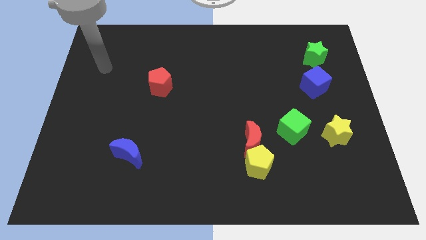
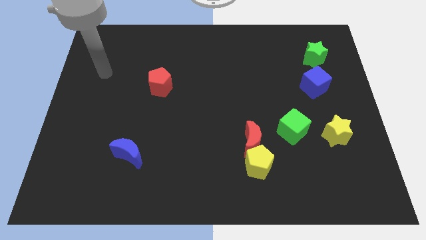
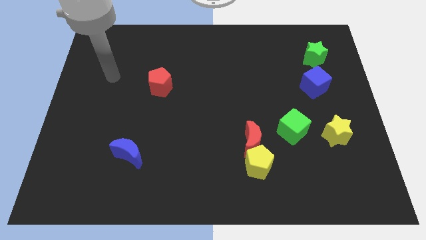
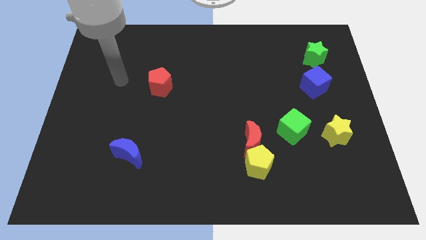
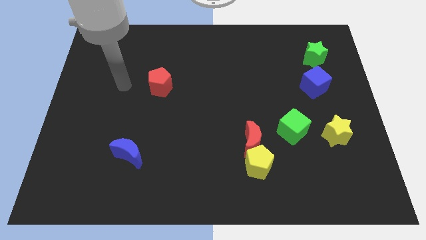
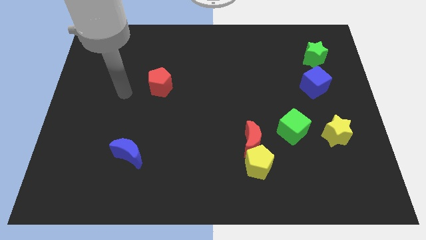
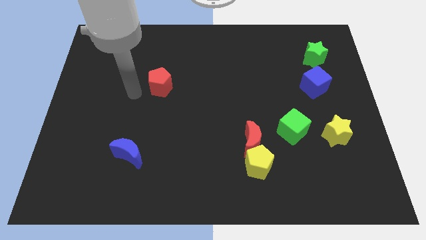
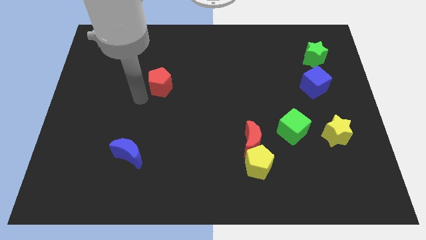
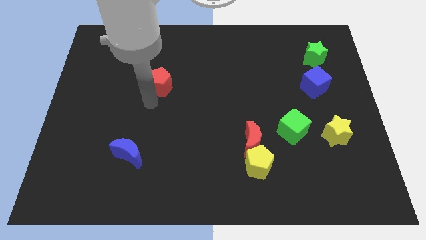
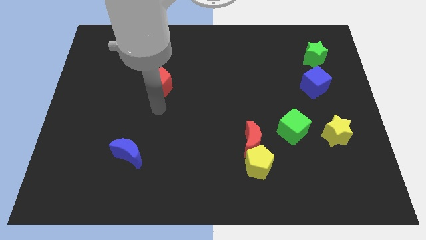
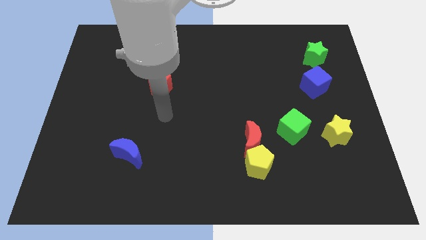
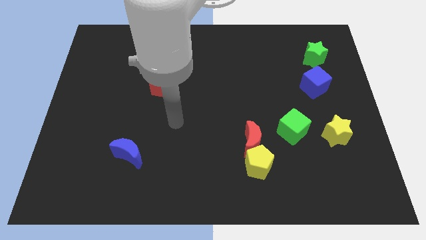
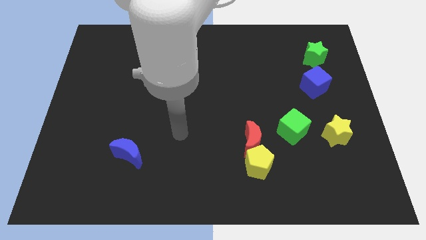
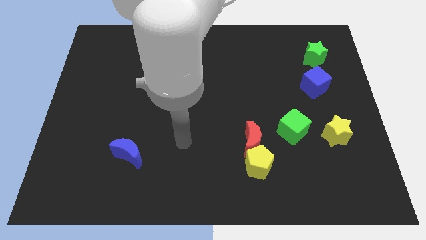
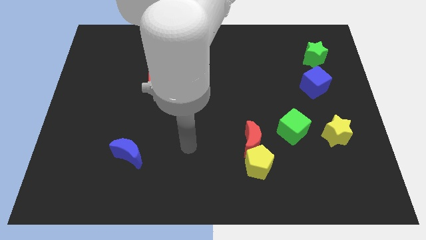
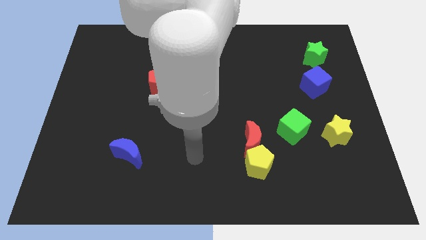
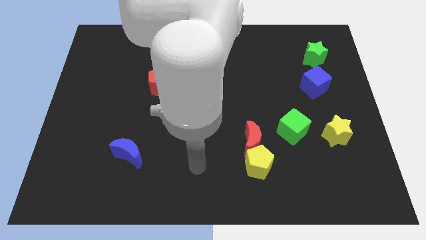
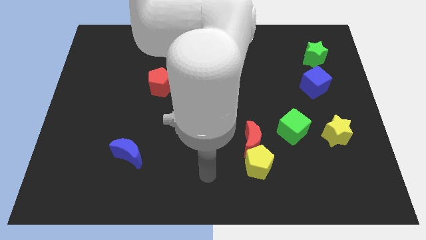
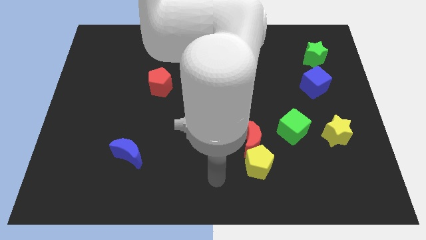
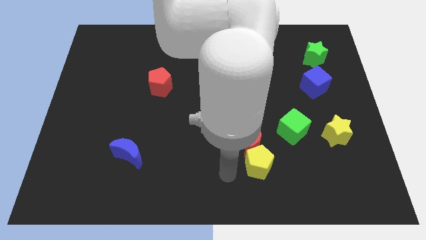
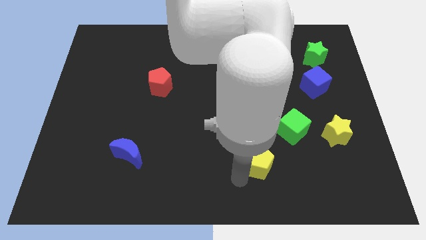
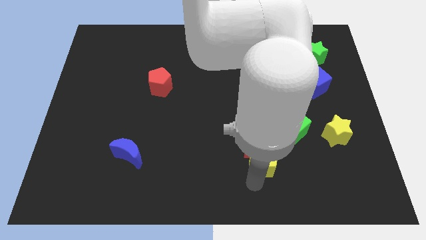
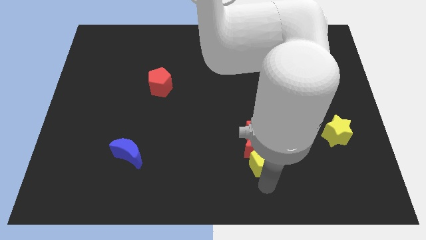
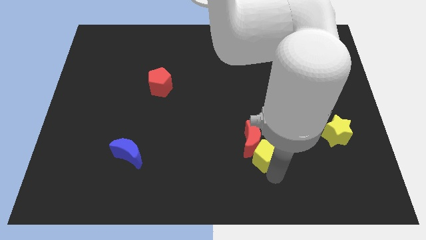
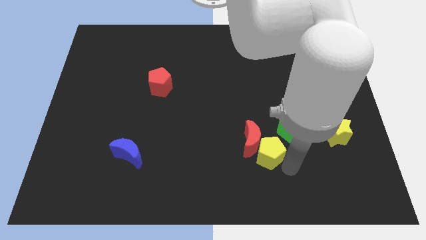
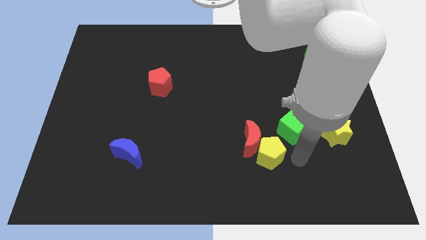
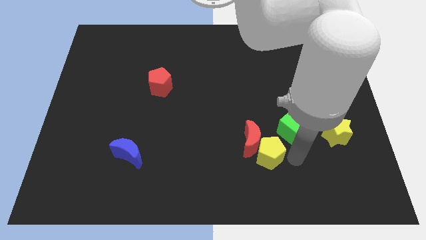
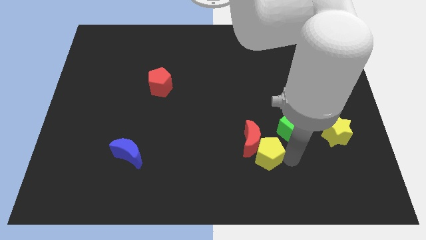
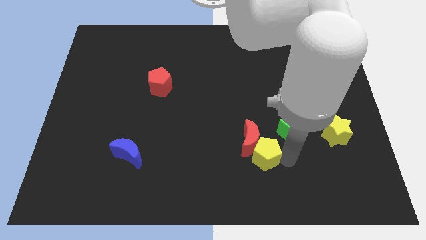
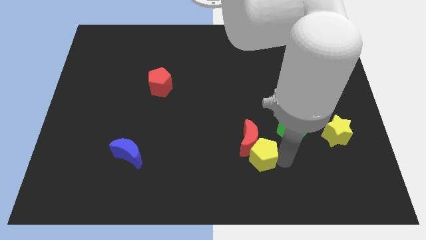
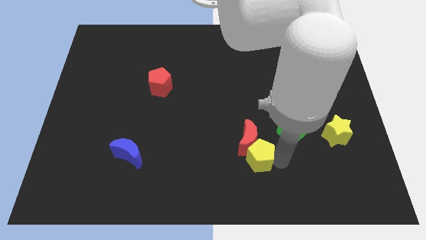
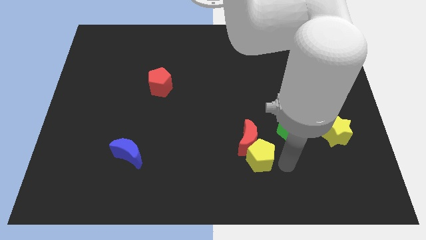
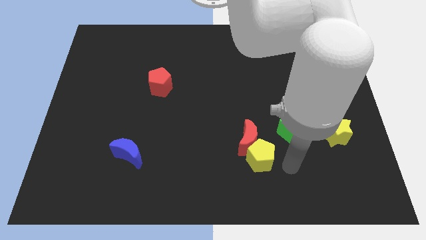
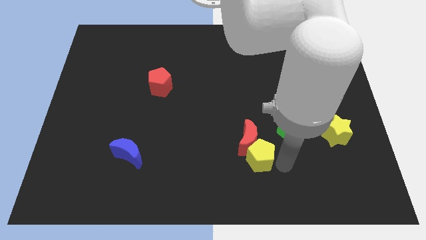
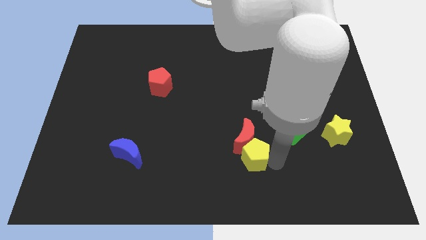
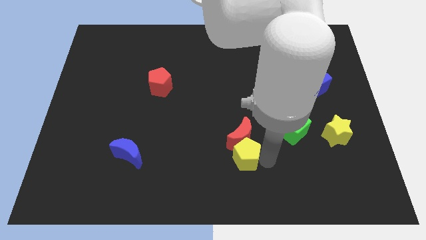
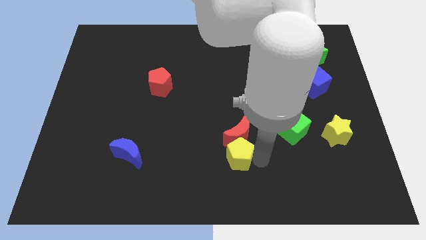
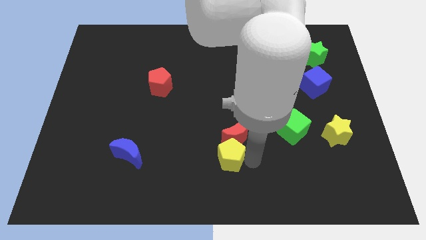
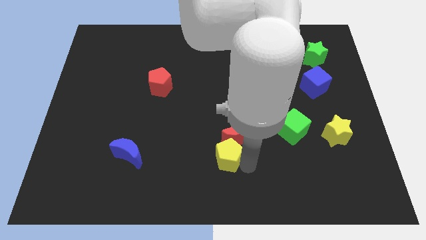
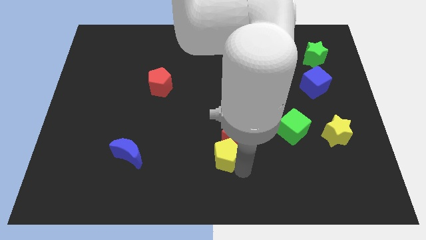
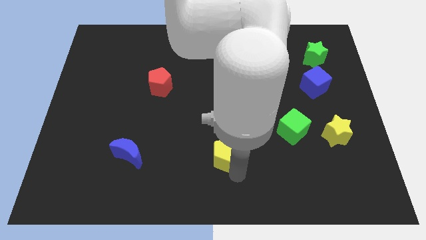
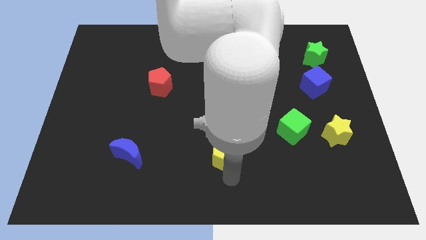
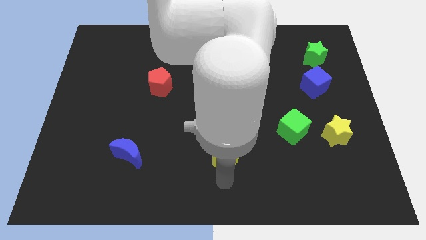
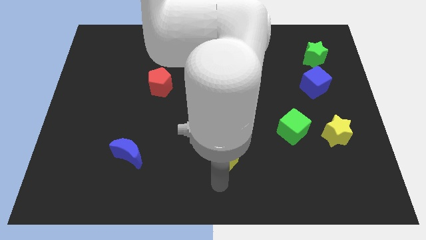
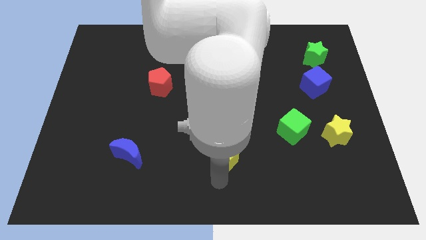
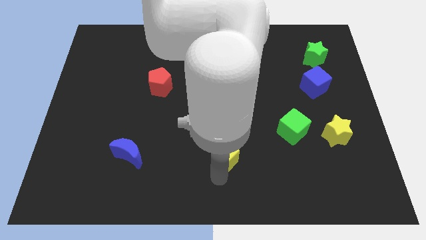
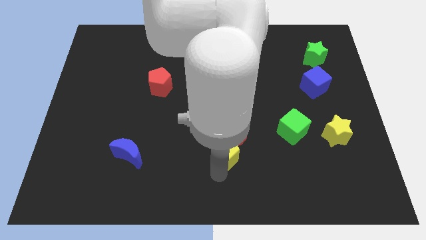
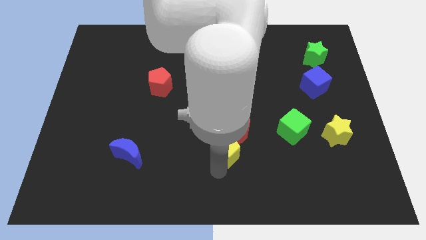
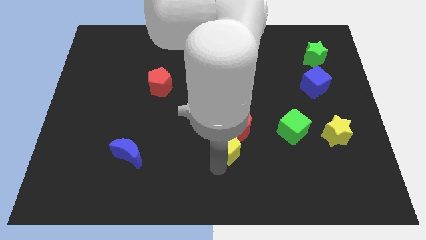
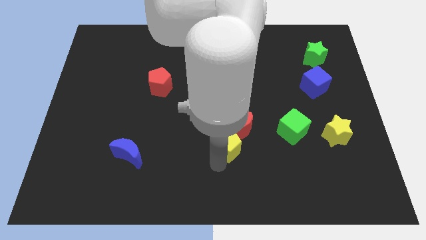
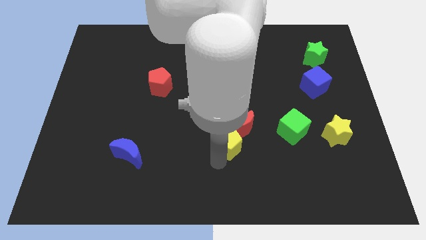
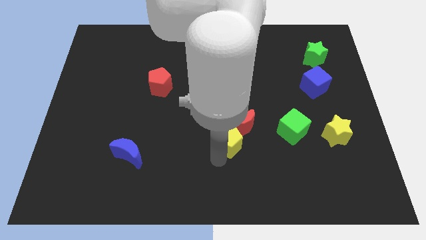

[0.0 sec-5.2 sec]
slide the yellow pentagon to the center of the board

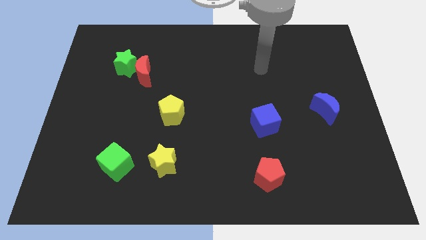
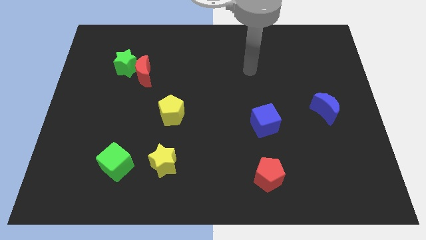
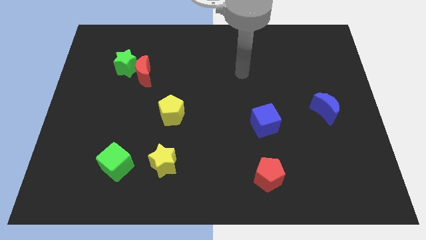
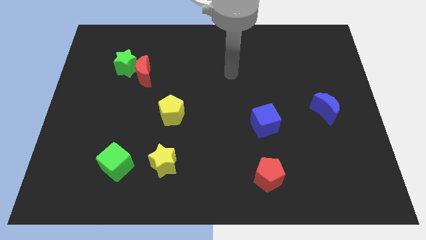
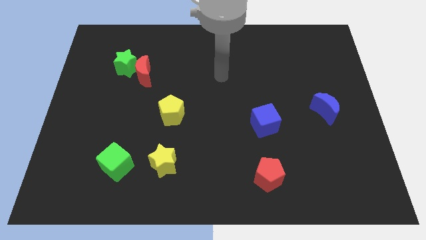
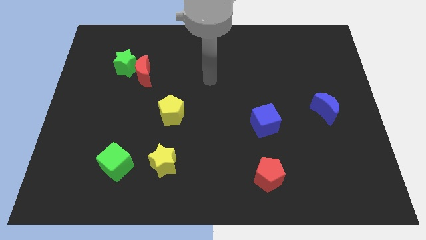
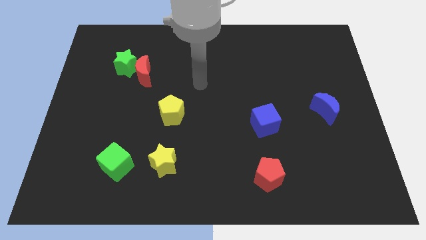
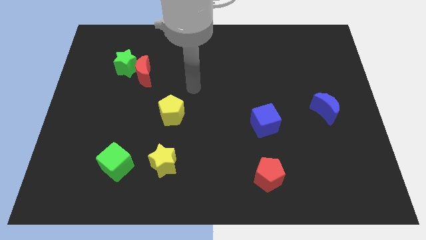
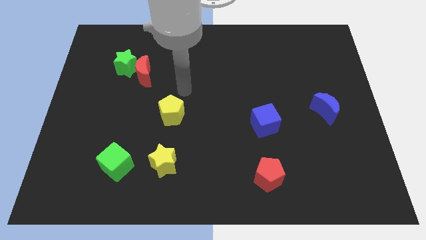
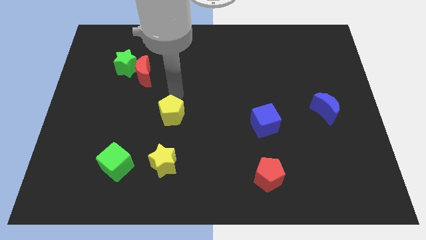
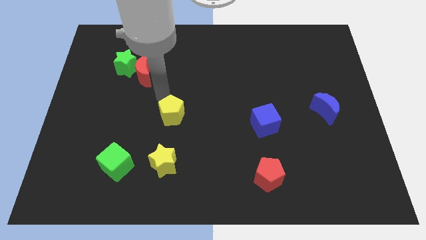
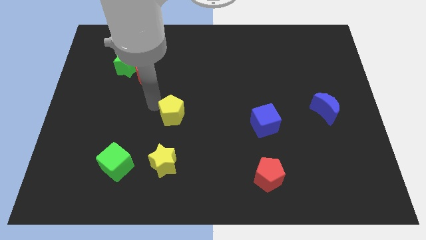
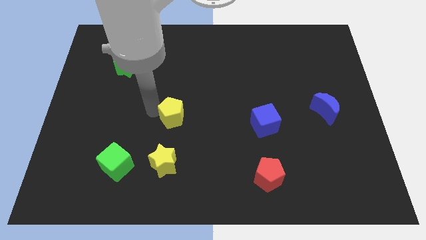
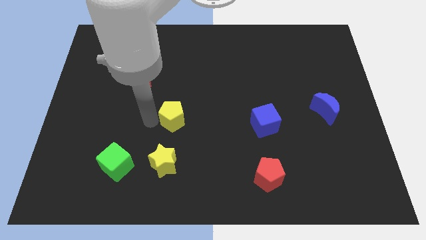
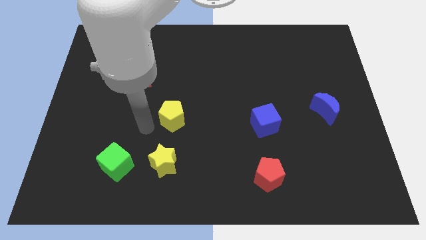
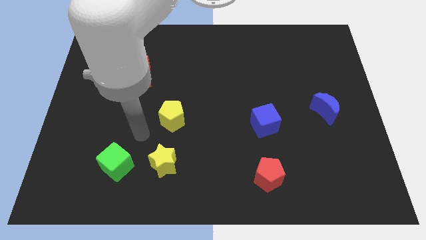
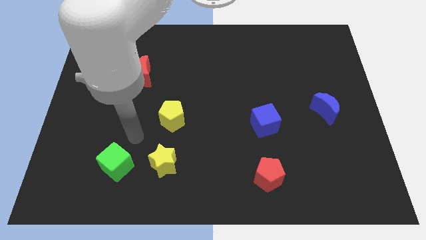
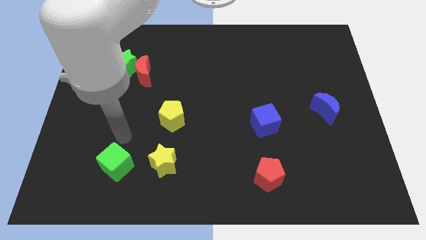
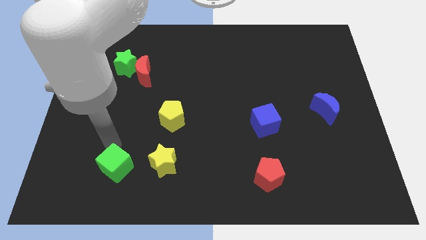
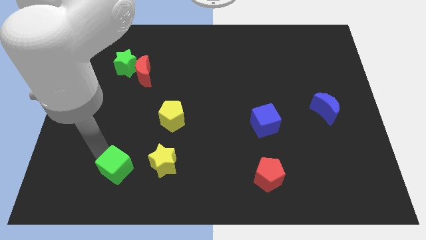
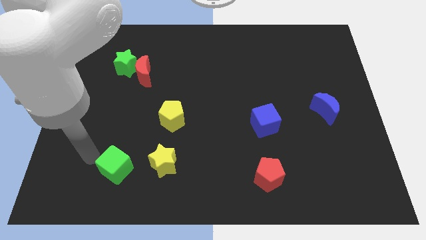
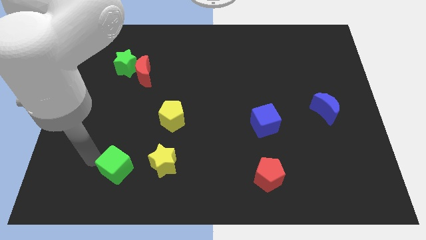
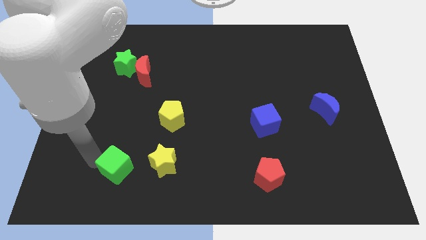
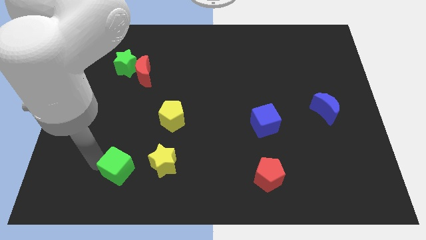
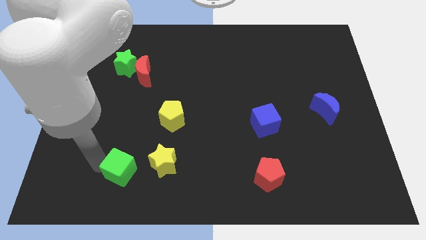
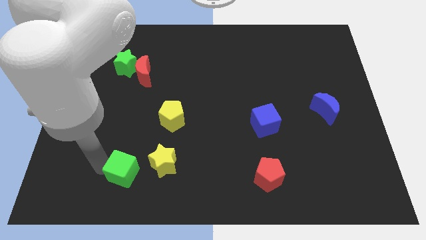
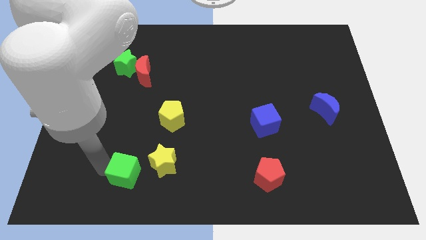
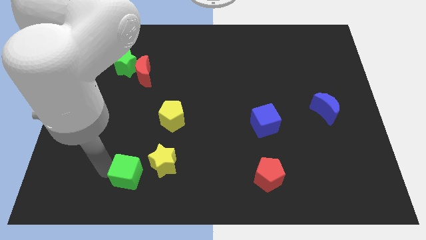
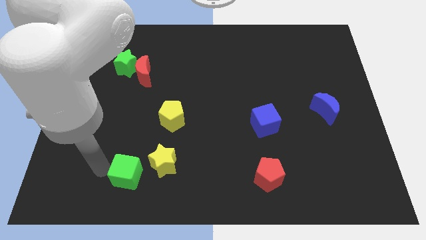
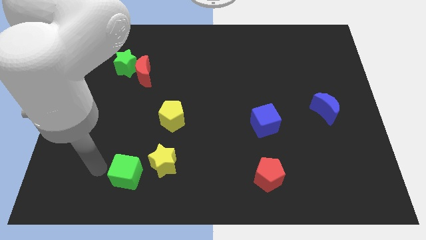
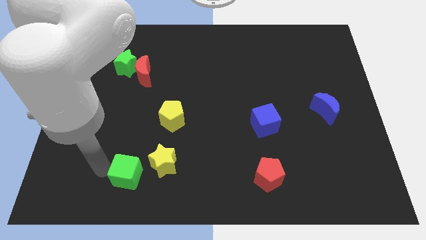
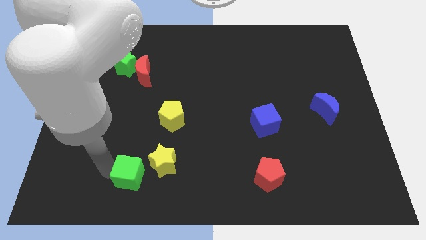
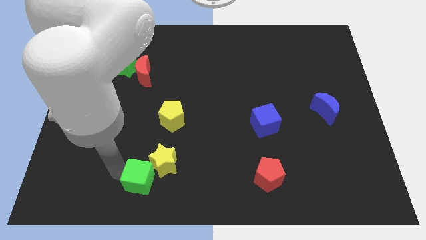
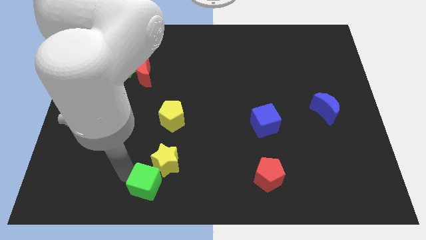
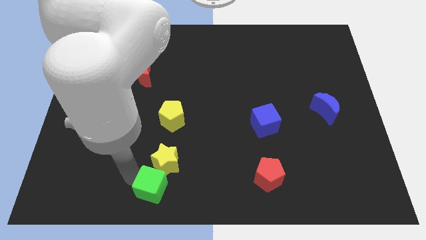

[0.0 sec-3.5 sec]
push the green cube to the bottom side
